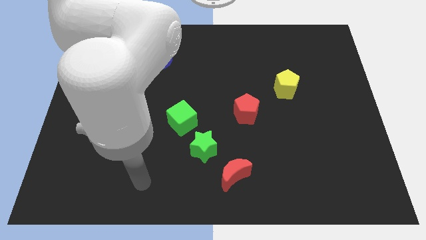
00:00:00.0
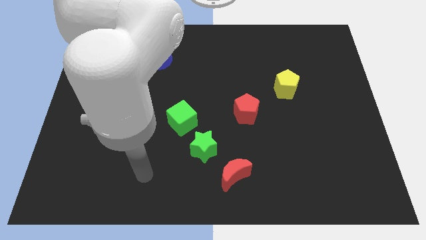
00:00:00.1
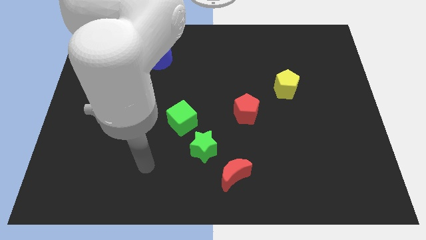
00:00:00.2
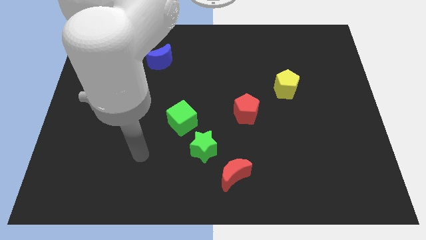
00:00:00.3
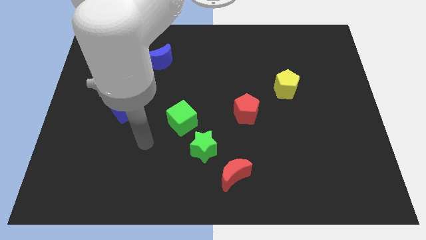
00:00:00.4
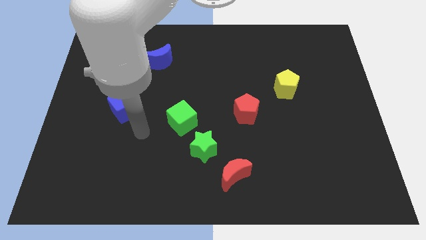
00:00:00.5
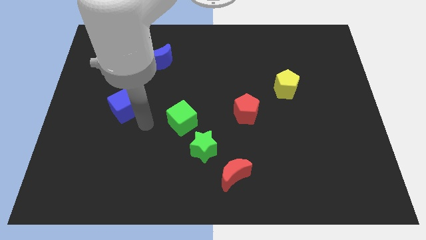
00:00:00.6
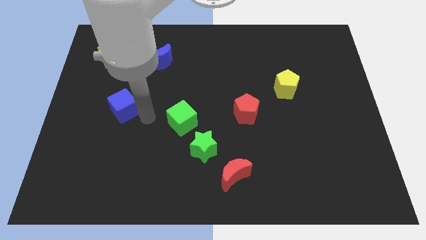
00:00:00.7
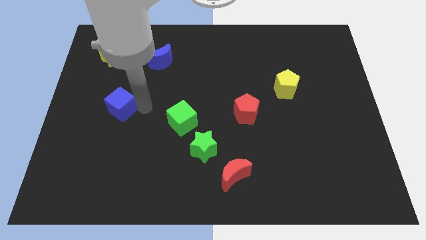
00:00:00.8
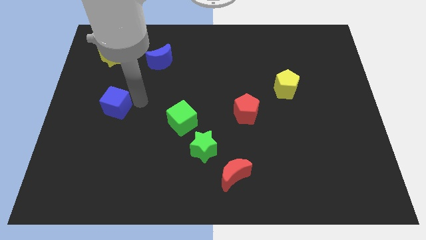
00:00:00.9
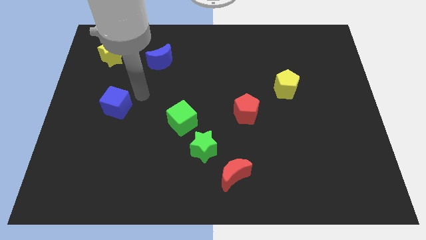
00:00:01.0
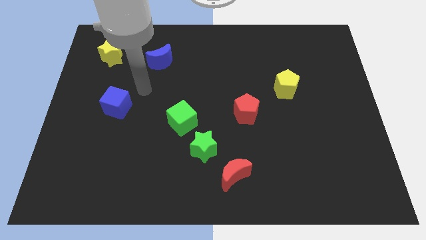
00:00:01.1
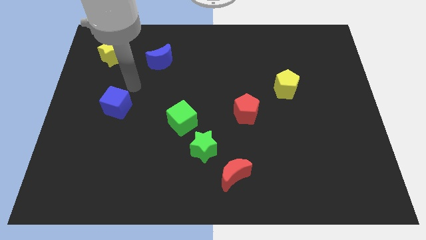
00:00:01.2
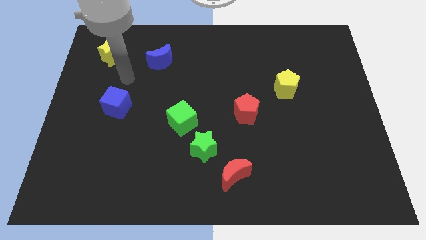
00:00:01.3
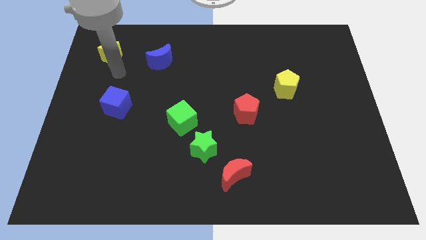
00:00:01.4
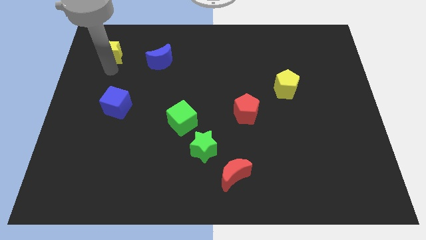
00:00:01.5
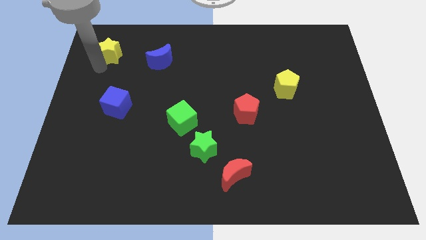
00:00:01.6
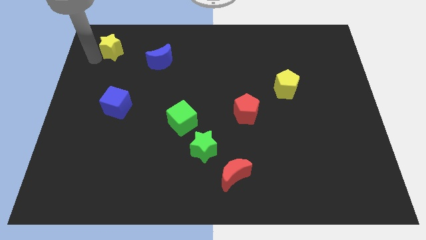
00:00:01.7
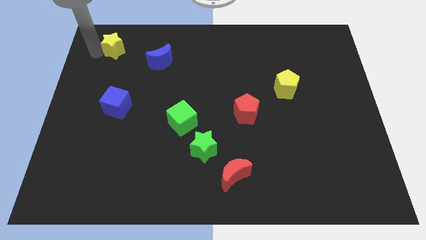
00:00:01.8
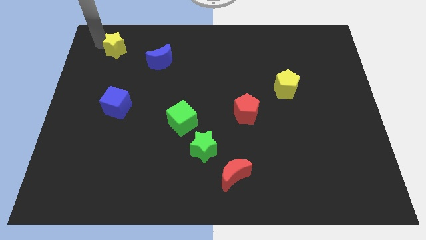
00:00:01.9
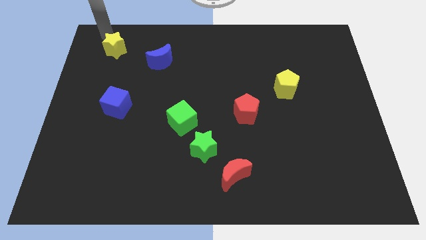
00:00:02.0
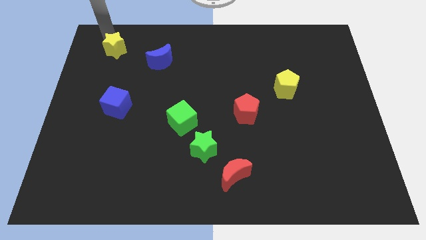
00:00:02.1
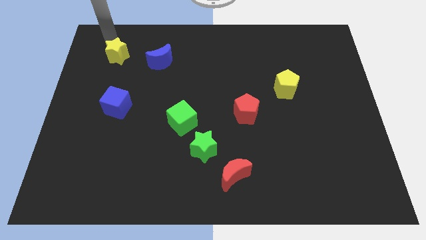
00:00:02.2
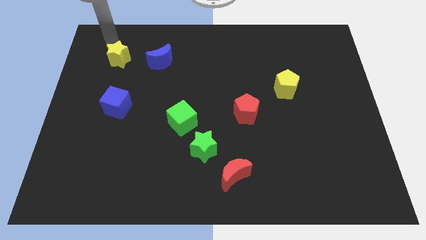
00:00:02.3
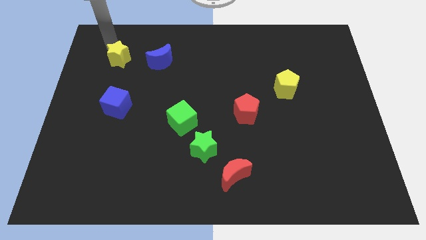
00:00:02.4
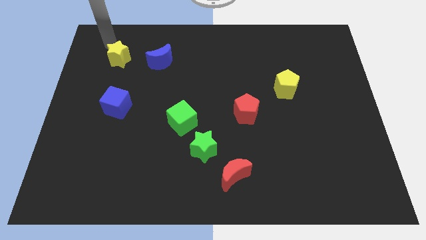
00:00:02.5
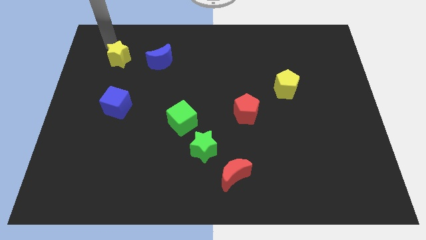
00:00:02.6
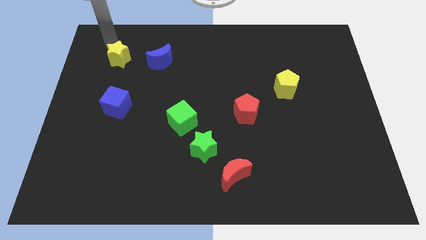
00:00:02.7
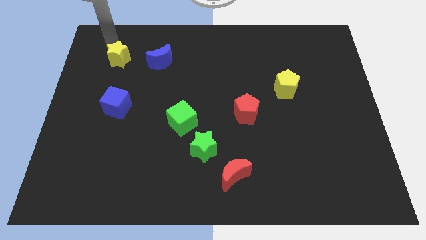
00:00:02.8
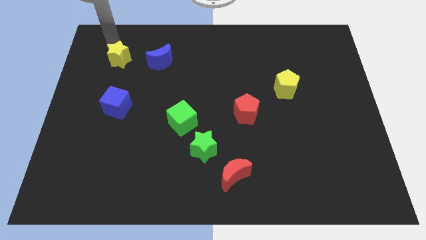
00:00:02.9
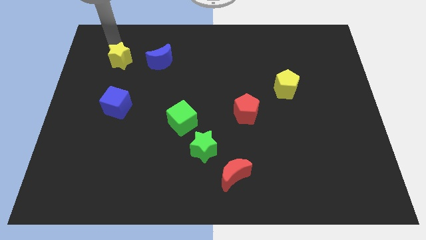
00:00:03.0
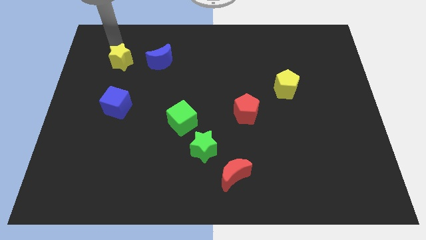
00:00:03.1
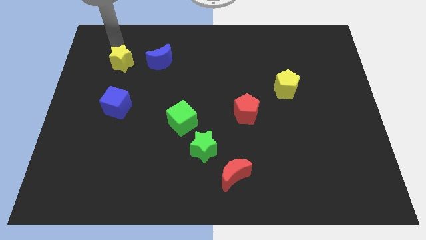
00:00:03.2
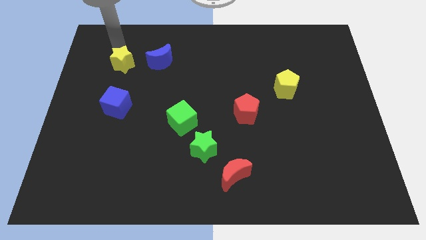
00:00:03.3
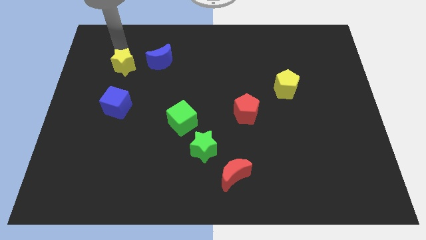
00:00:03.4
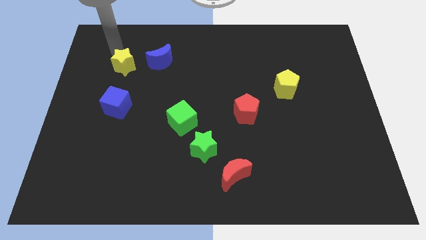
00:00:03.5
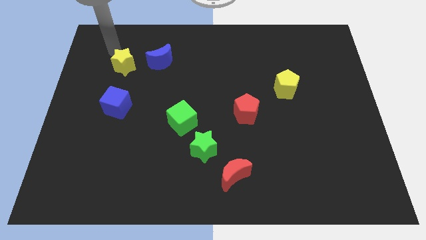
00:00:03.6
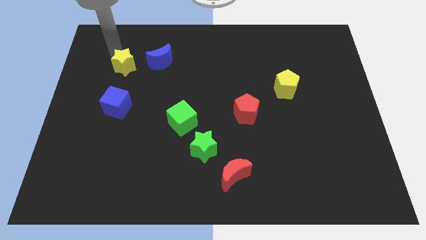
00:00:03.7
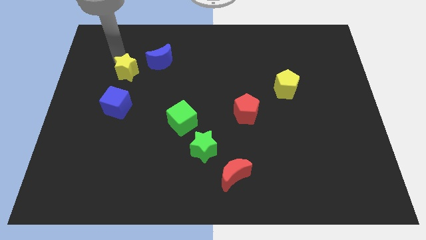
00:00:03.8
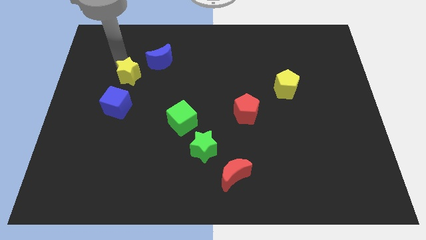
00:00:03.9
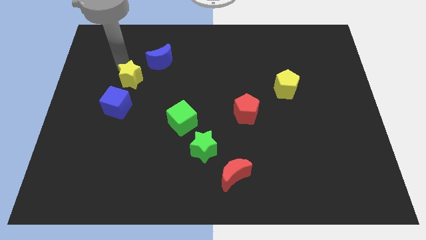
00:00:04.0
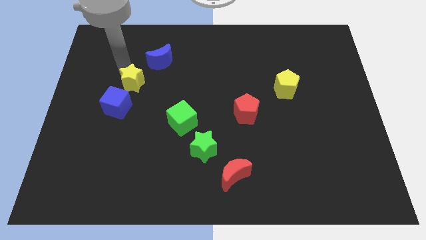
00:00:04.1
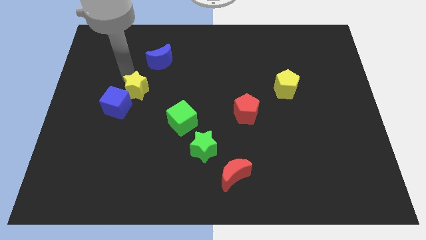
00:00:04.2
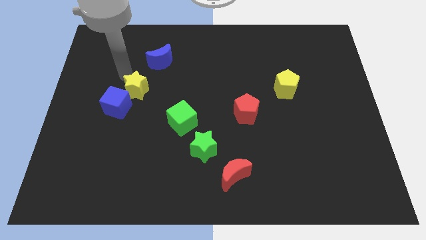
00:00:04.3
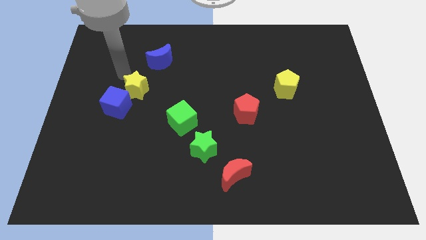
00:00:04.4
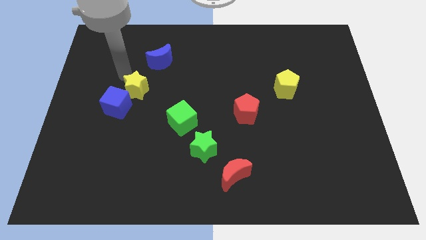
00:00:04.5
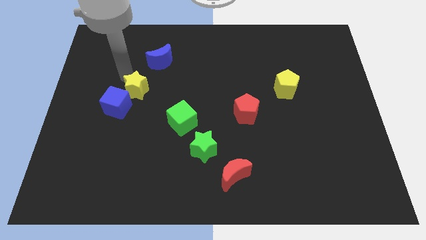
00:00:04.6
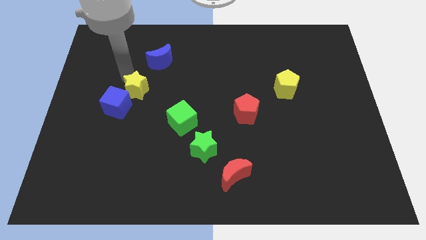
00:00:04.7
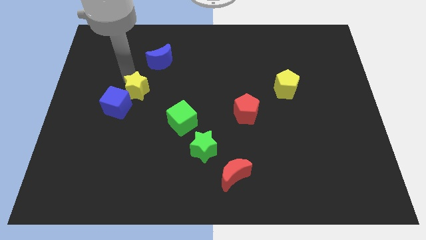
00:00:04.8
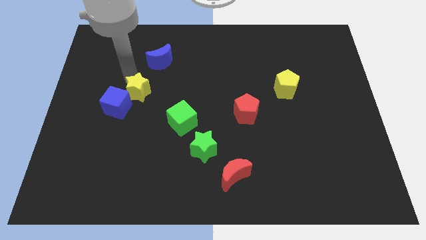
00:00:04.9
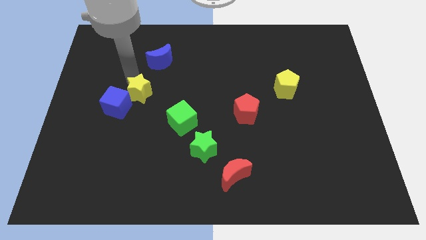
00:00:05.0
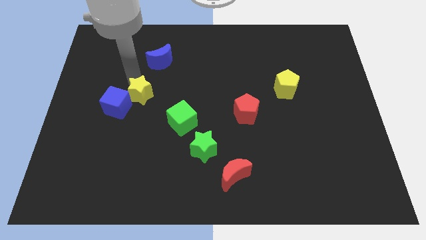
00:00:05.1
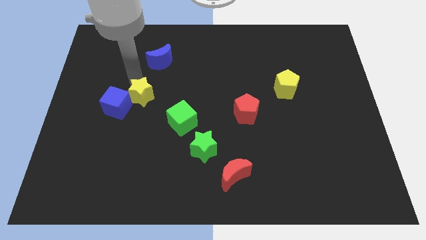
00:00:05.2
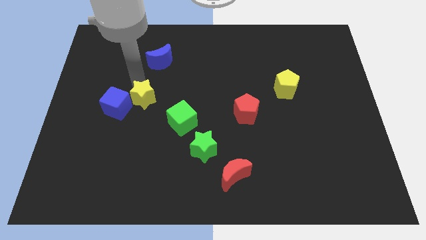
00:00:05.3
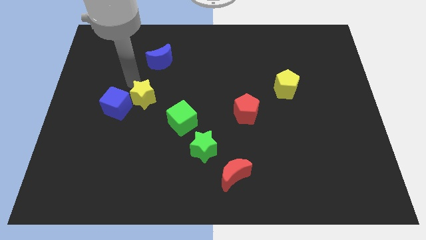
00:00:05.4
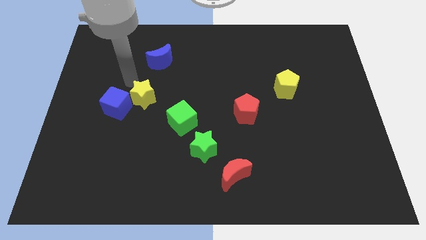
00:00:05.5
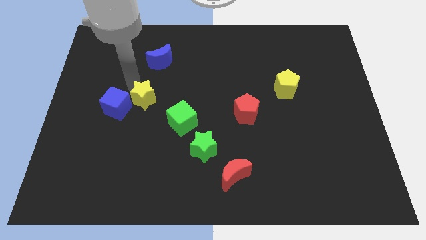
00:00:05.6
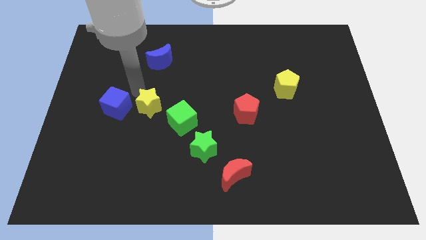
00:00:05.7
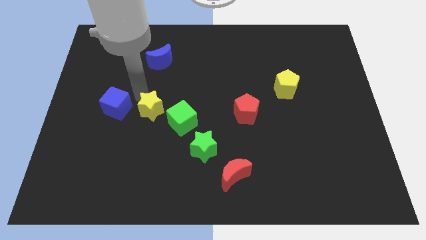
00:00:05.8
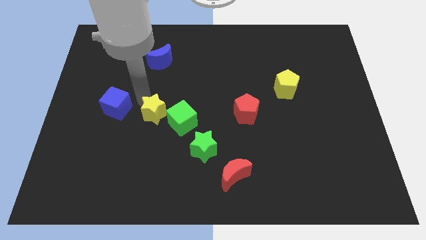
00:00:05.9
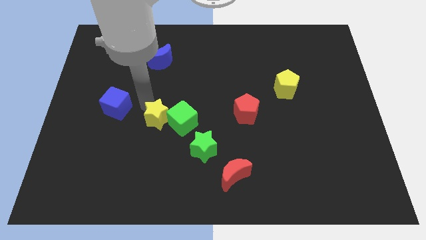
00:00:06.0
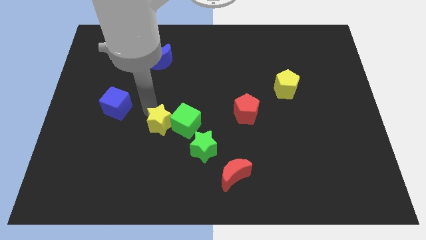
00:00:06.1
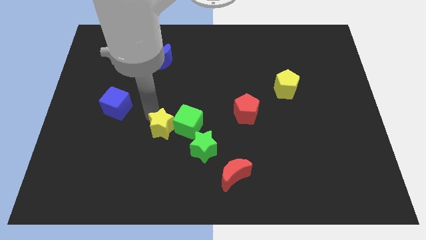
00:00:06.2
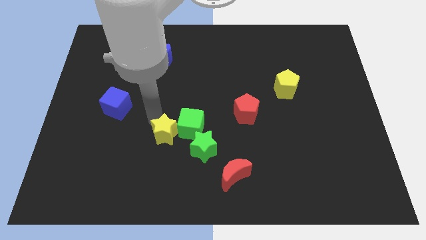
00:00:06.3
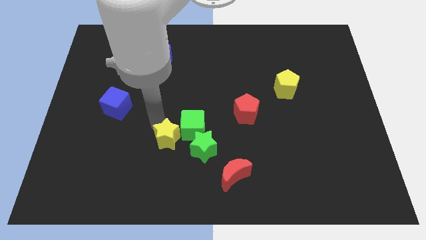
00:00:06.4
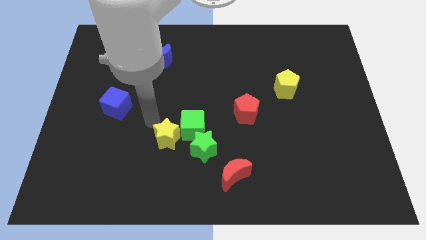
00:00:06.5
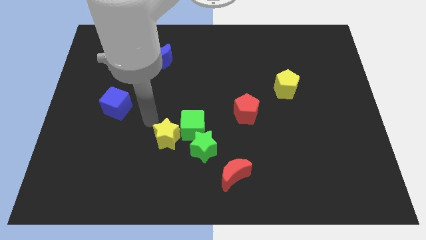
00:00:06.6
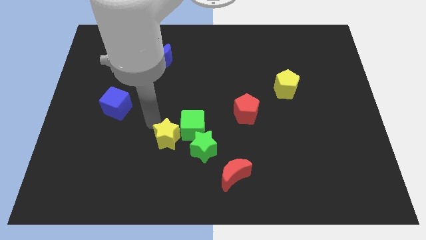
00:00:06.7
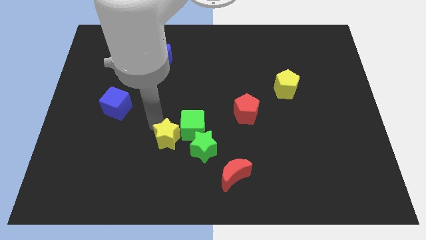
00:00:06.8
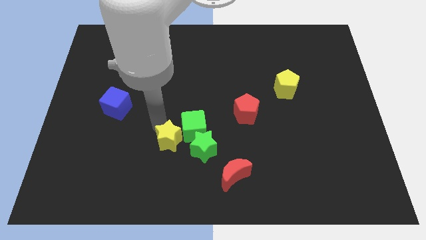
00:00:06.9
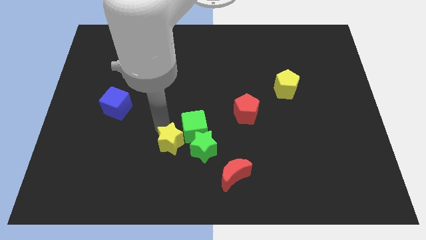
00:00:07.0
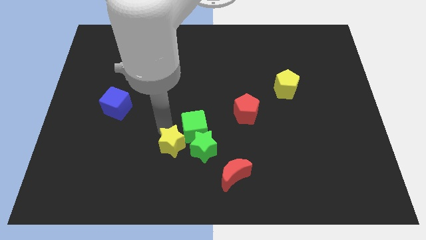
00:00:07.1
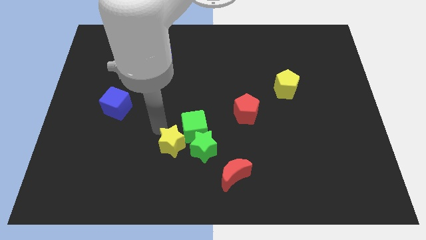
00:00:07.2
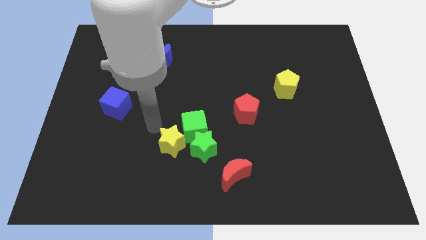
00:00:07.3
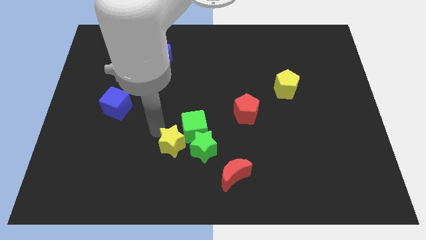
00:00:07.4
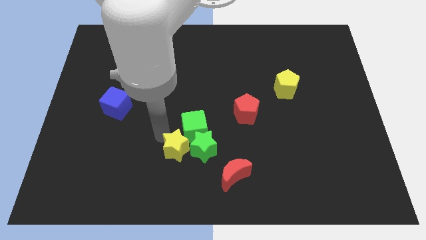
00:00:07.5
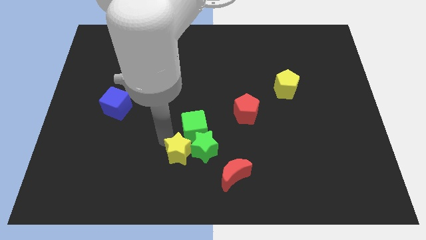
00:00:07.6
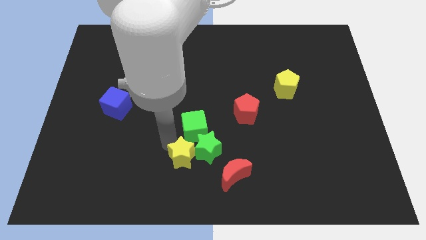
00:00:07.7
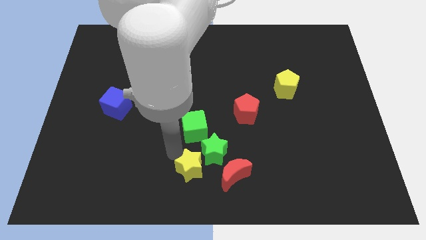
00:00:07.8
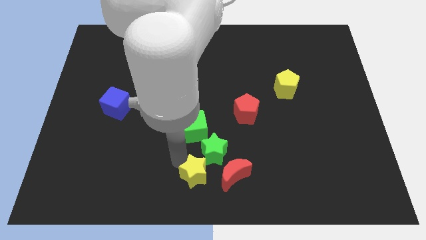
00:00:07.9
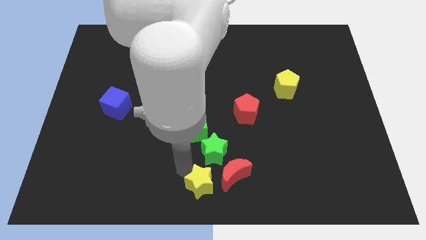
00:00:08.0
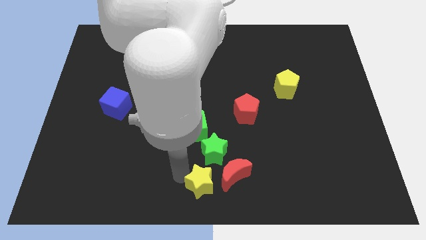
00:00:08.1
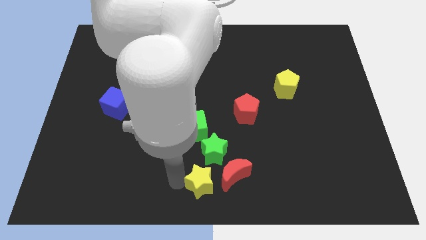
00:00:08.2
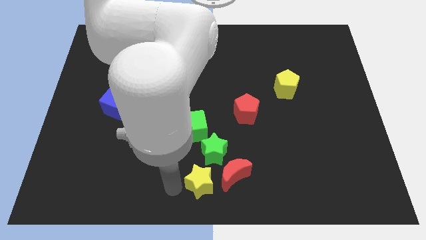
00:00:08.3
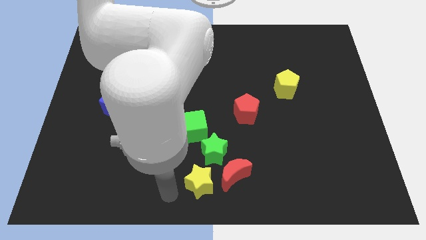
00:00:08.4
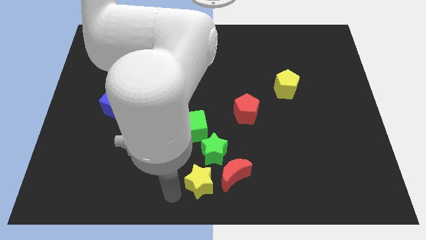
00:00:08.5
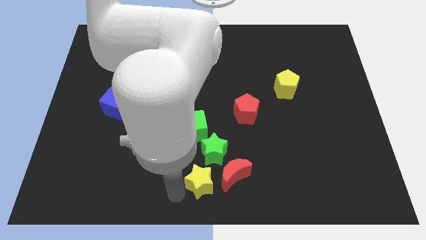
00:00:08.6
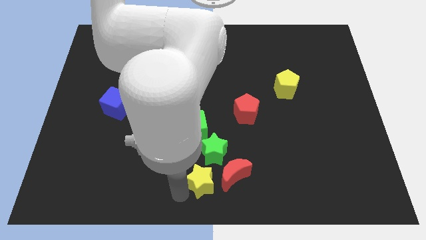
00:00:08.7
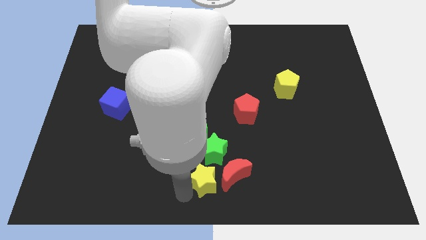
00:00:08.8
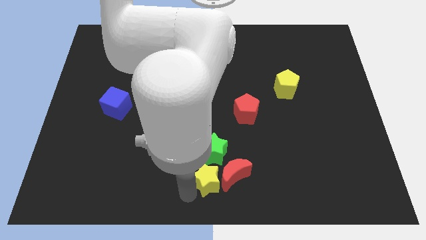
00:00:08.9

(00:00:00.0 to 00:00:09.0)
push the yellow star close to the red moon
